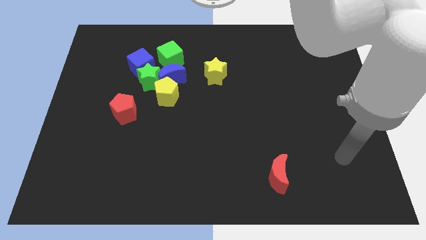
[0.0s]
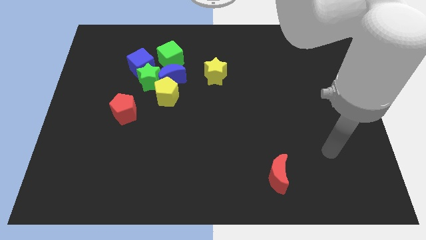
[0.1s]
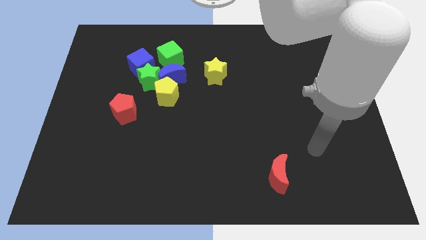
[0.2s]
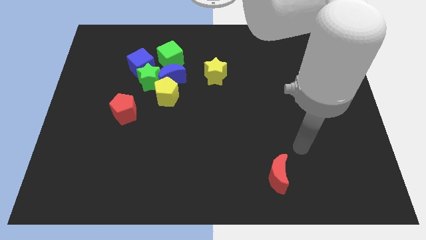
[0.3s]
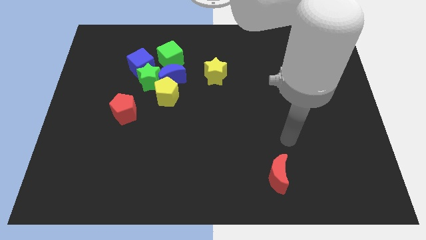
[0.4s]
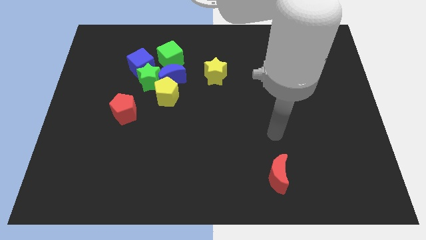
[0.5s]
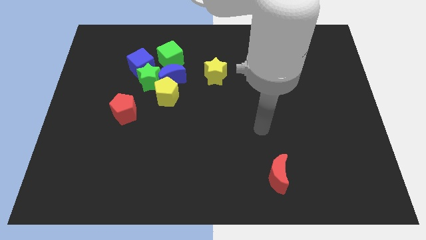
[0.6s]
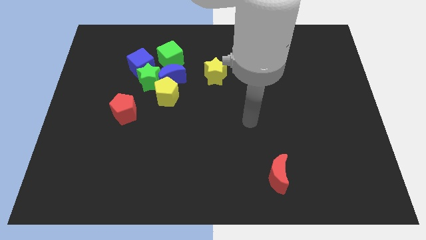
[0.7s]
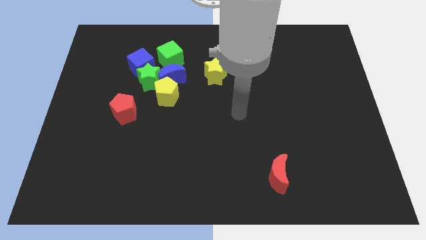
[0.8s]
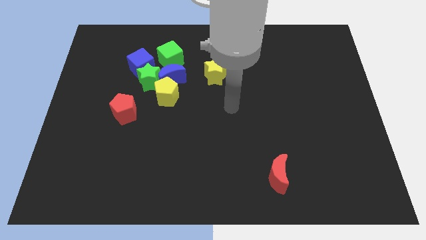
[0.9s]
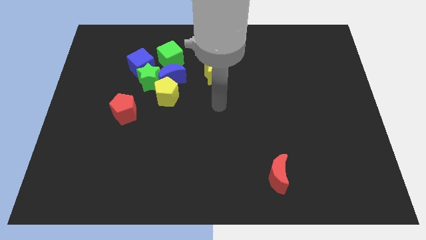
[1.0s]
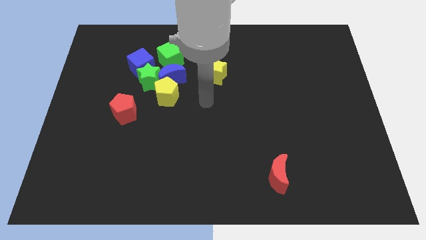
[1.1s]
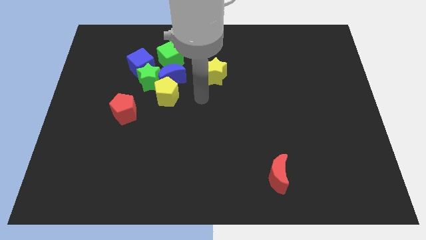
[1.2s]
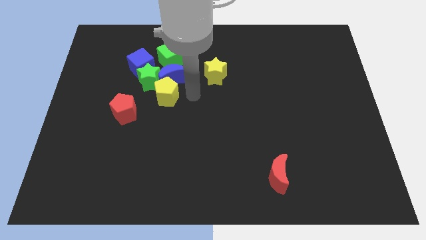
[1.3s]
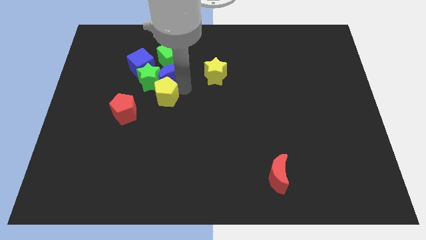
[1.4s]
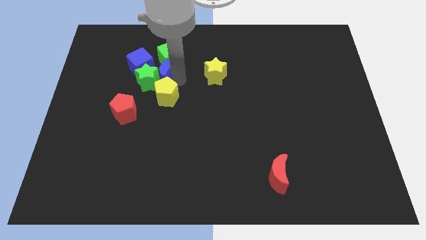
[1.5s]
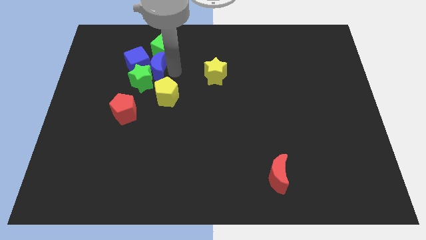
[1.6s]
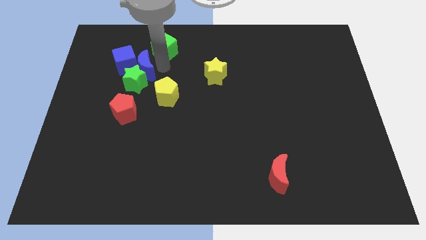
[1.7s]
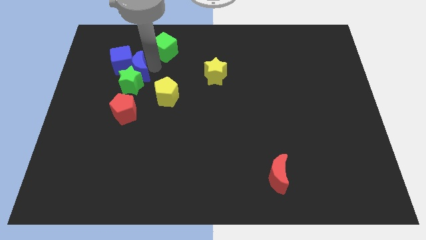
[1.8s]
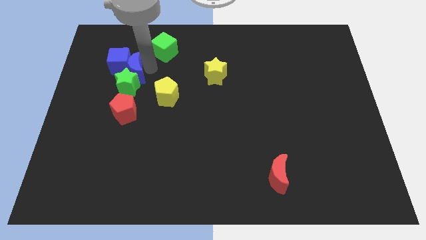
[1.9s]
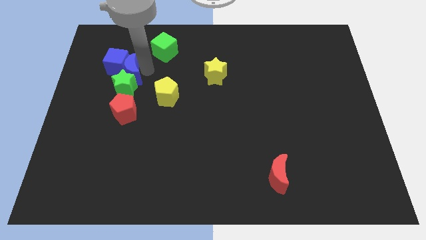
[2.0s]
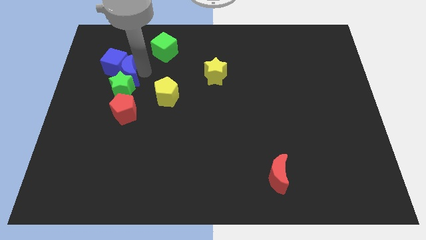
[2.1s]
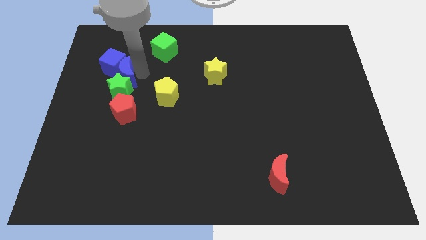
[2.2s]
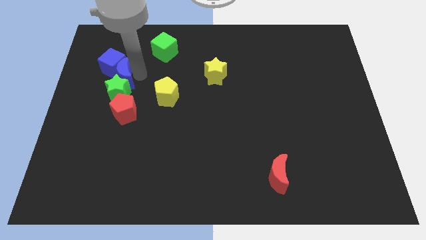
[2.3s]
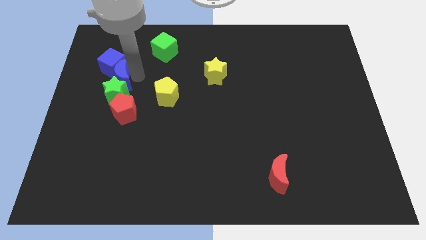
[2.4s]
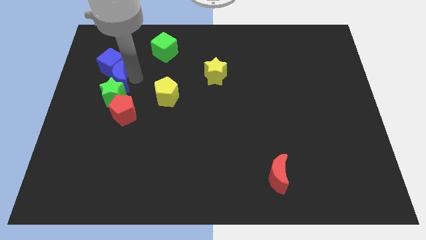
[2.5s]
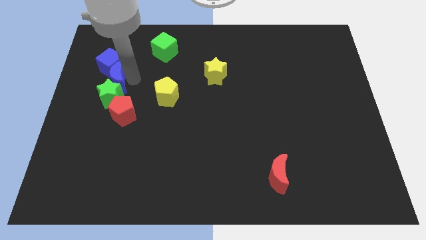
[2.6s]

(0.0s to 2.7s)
pull the green star apart from the group of blocks

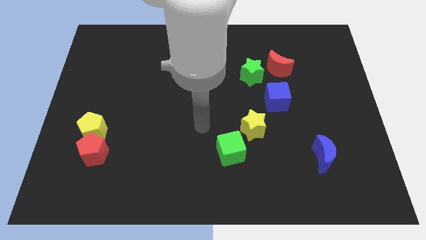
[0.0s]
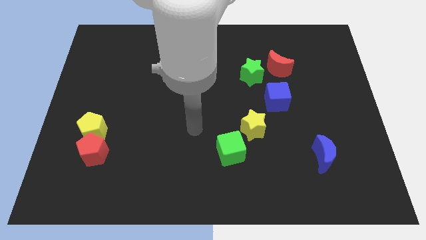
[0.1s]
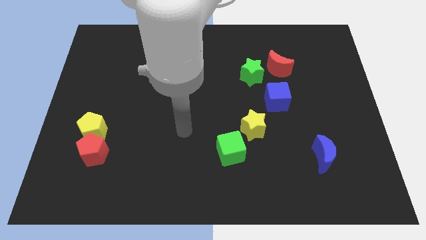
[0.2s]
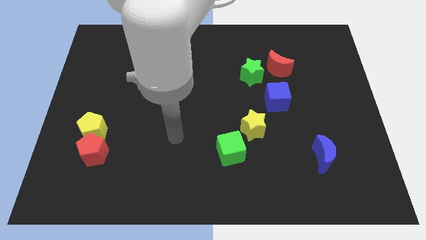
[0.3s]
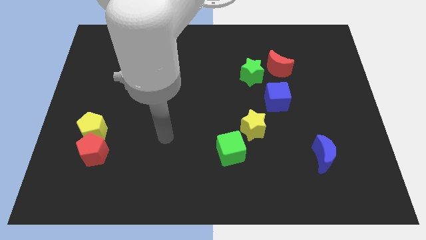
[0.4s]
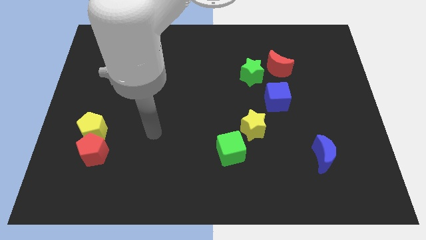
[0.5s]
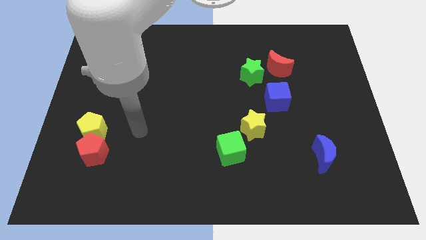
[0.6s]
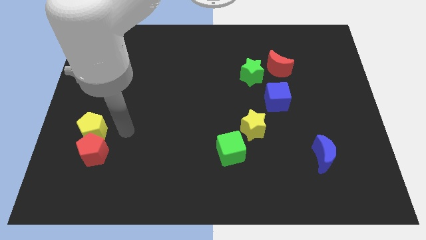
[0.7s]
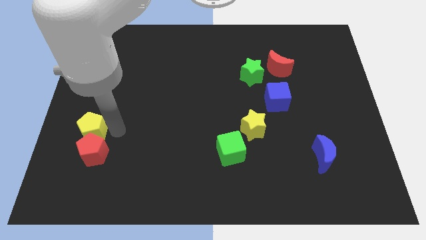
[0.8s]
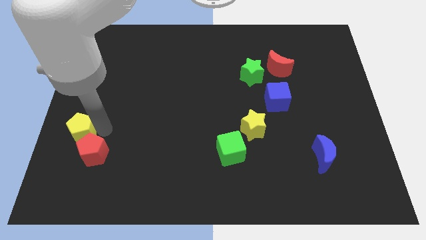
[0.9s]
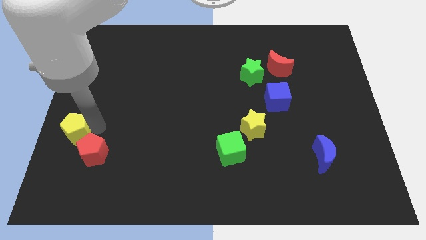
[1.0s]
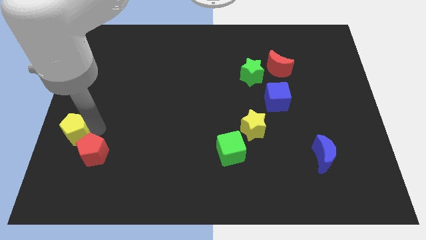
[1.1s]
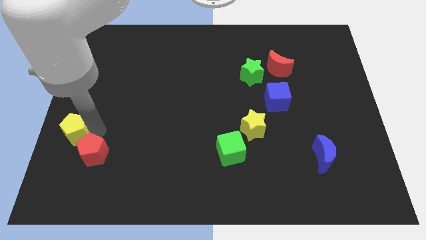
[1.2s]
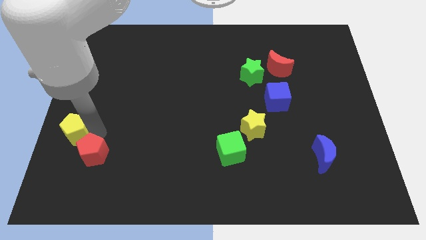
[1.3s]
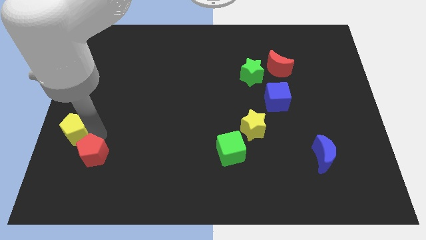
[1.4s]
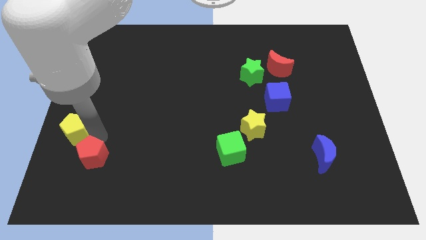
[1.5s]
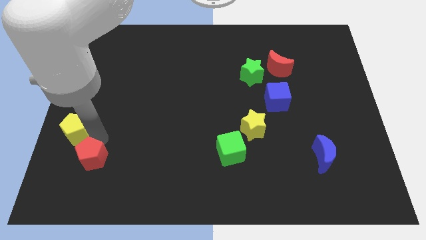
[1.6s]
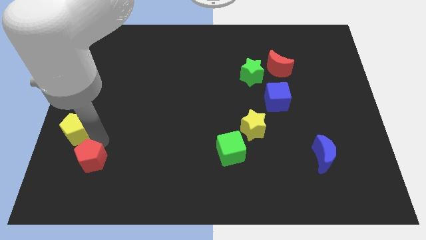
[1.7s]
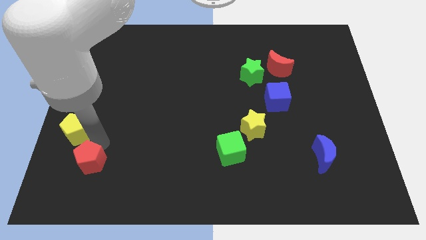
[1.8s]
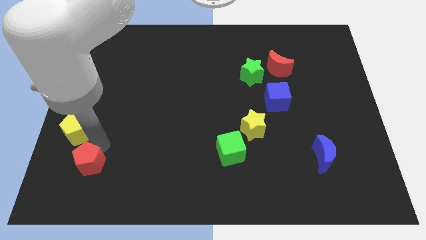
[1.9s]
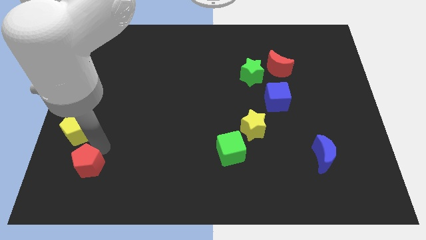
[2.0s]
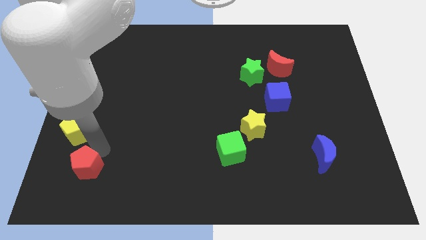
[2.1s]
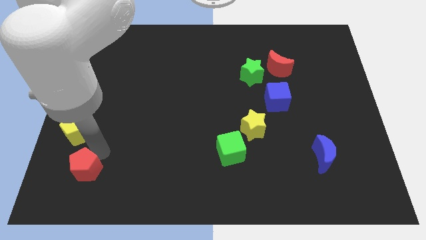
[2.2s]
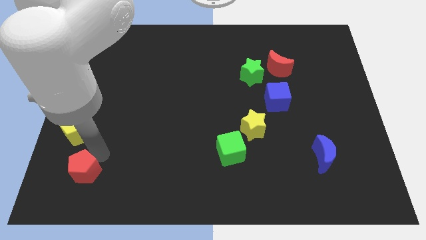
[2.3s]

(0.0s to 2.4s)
separate the red pentagon from the yellow pentagon

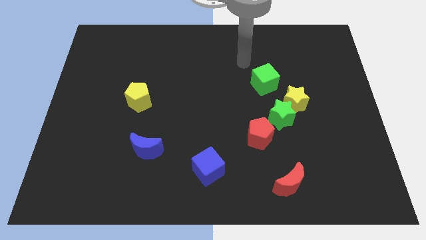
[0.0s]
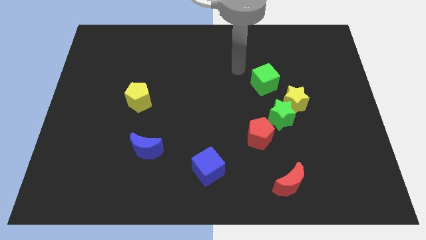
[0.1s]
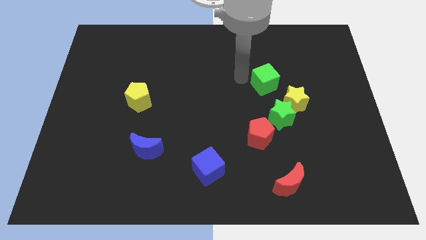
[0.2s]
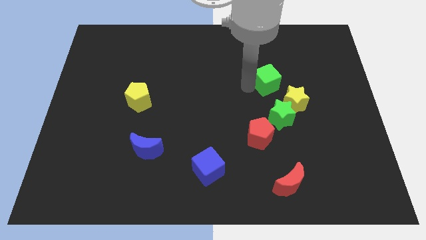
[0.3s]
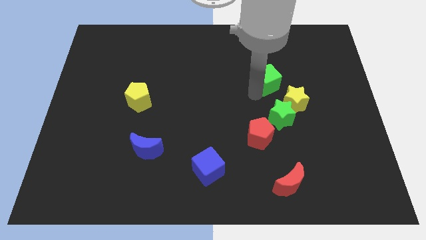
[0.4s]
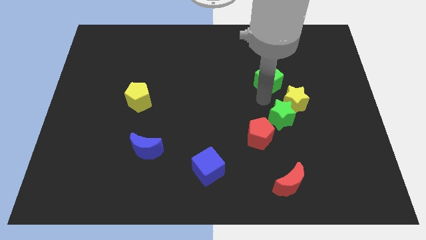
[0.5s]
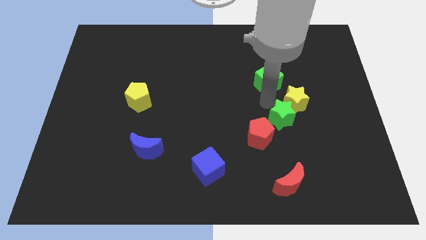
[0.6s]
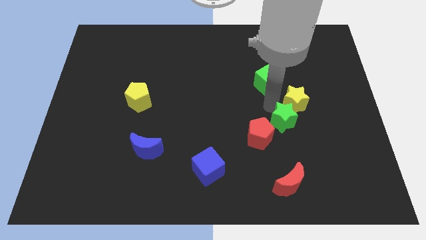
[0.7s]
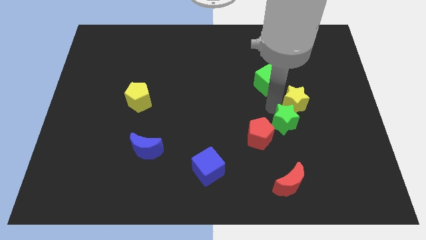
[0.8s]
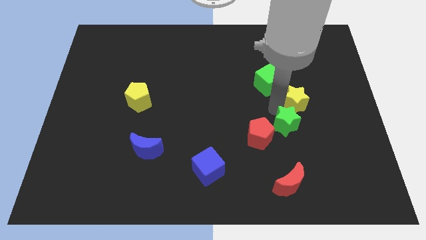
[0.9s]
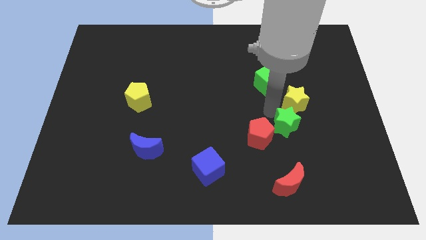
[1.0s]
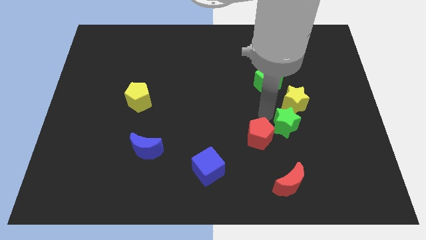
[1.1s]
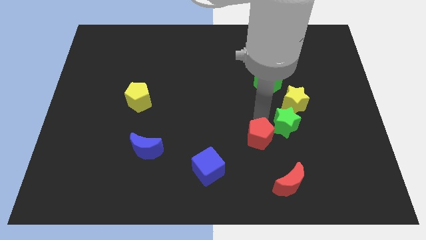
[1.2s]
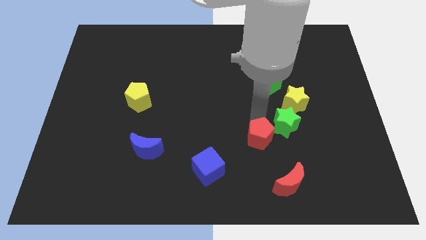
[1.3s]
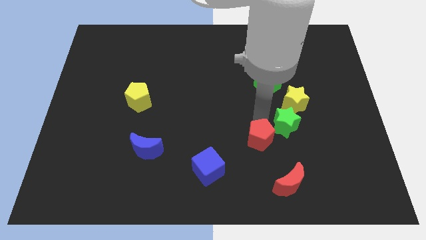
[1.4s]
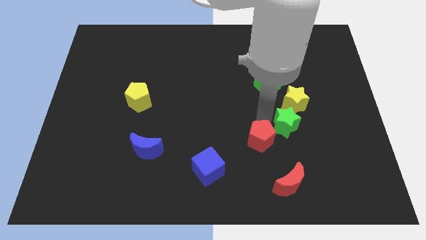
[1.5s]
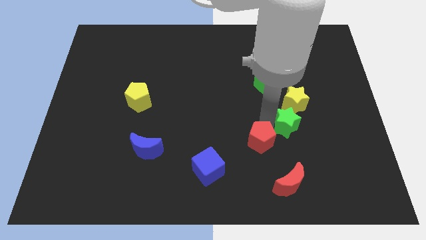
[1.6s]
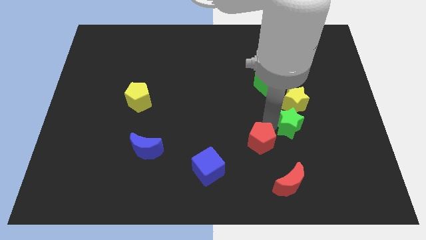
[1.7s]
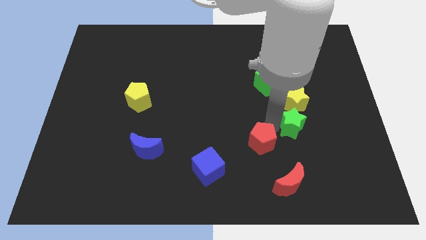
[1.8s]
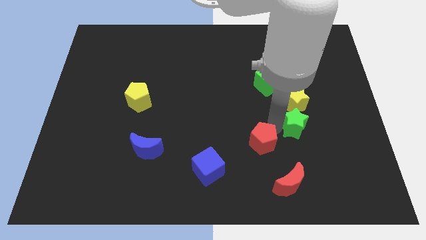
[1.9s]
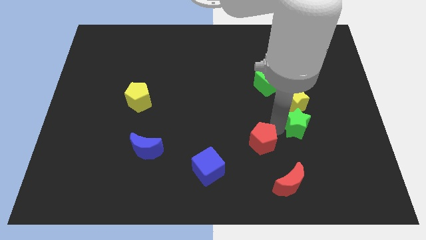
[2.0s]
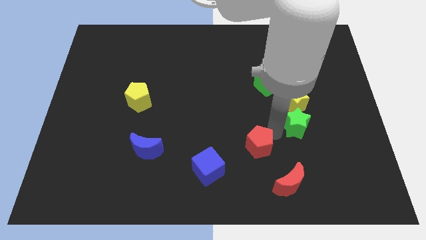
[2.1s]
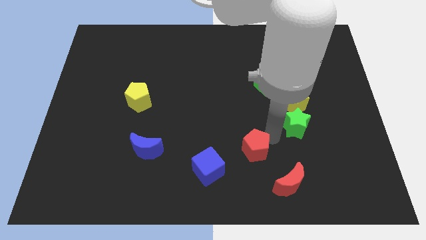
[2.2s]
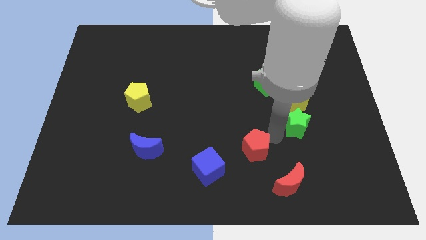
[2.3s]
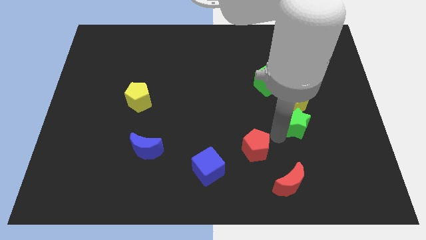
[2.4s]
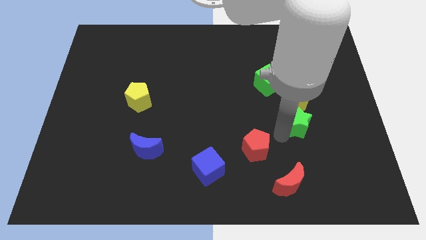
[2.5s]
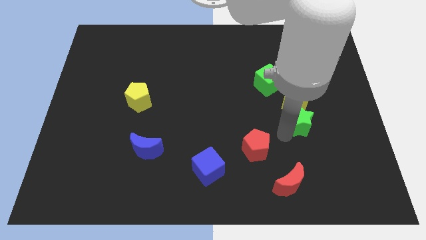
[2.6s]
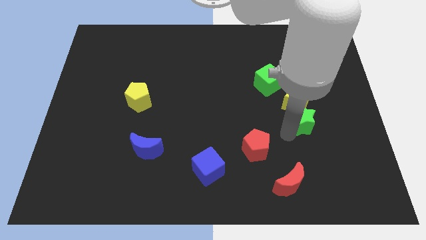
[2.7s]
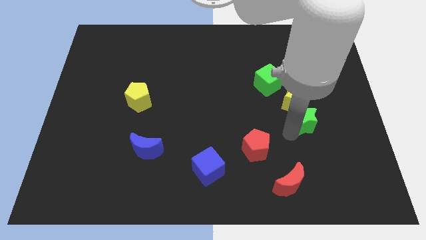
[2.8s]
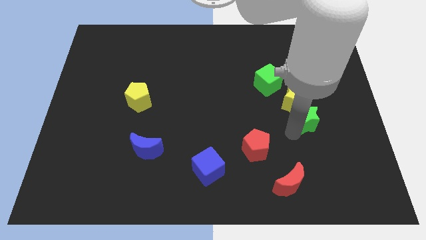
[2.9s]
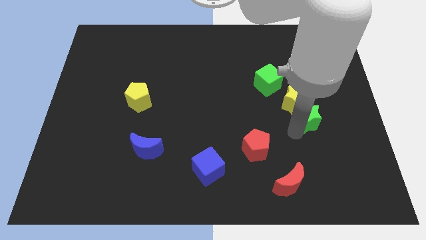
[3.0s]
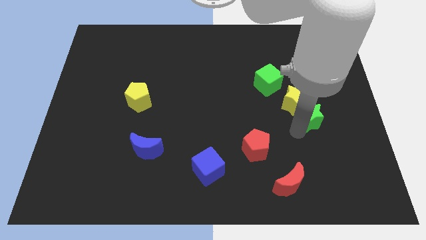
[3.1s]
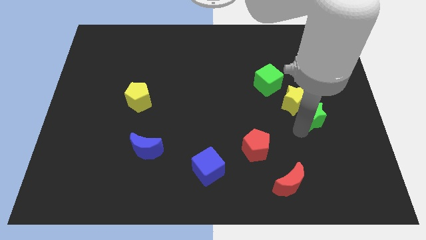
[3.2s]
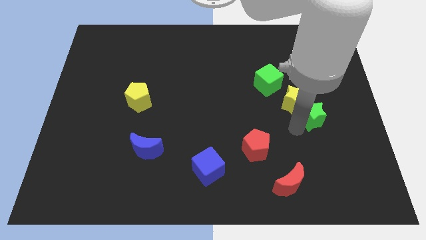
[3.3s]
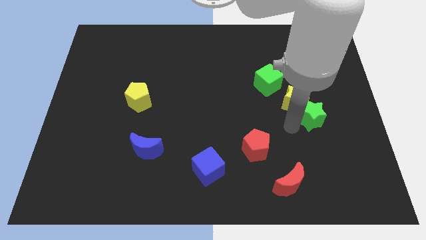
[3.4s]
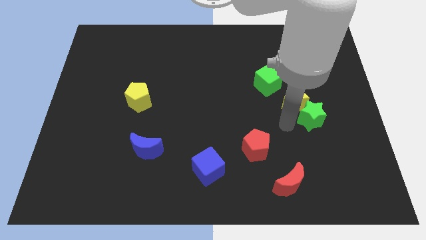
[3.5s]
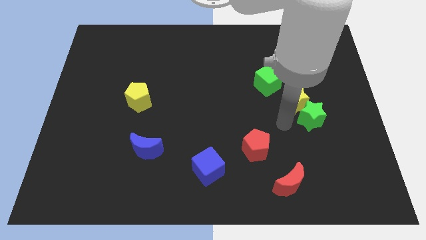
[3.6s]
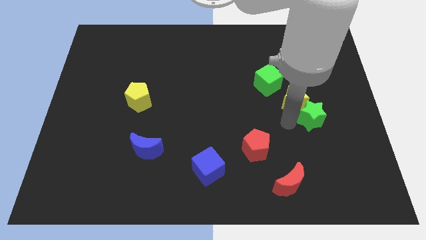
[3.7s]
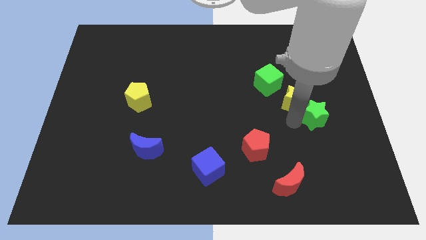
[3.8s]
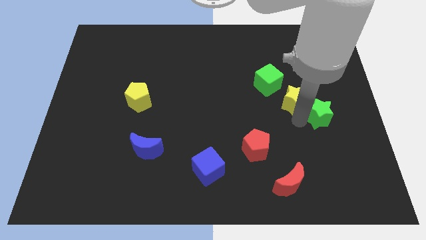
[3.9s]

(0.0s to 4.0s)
move the green star away from the yellow star and red pentagon

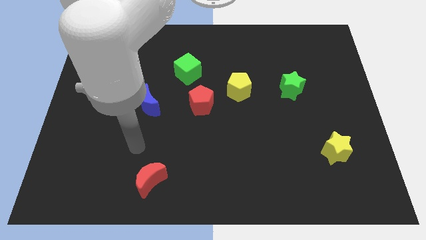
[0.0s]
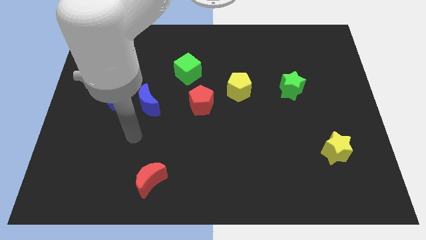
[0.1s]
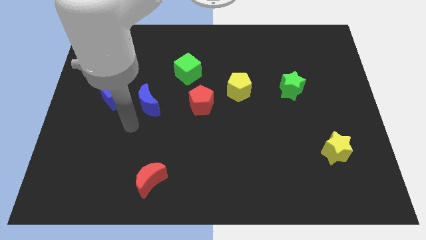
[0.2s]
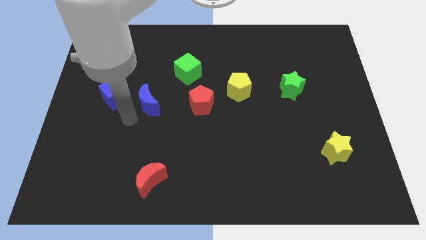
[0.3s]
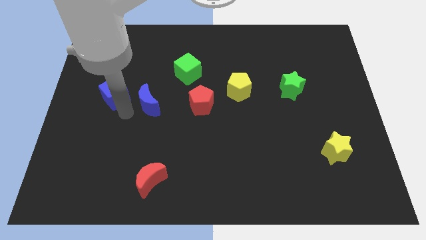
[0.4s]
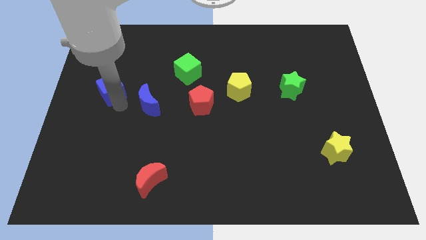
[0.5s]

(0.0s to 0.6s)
move the blue moon away from the blue cube
